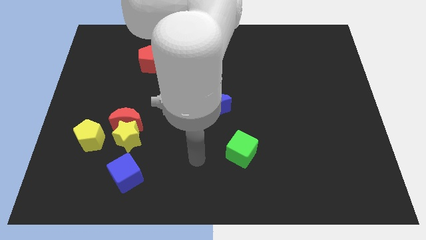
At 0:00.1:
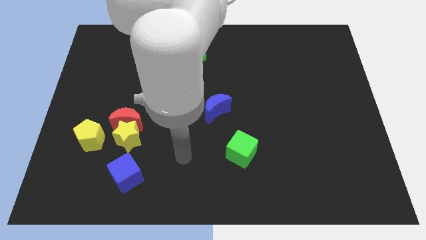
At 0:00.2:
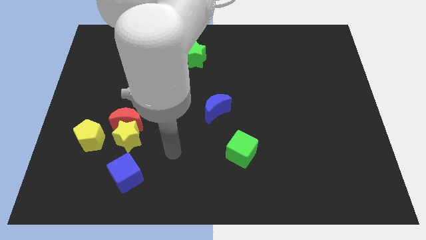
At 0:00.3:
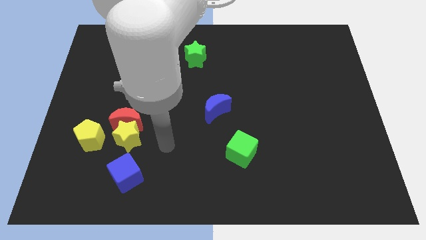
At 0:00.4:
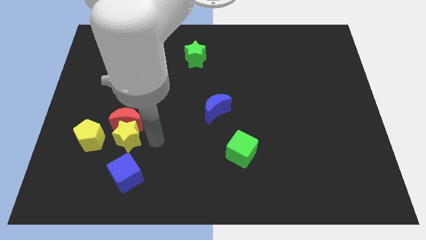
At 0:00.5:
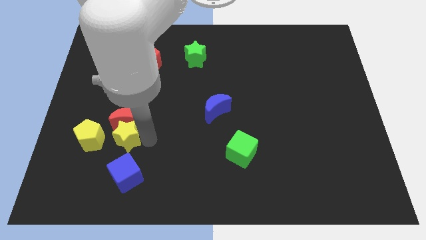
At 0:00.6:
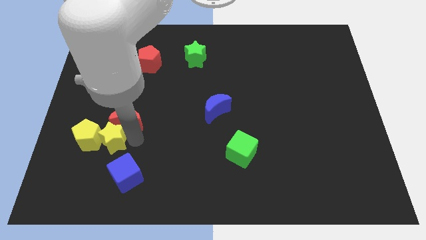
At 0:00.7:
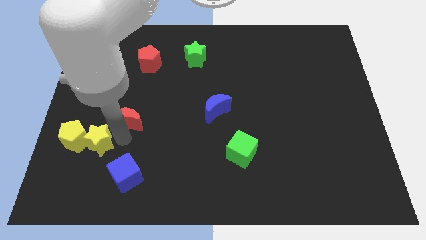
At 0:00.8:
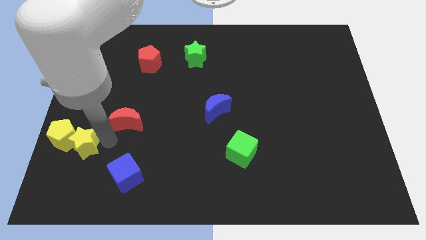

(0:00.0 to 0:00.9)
pull the red moon apart from the yellow star and yellow pentagon

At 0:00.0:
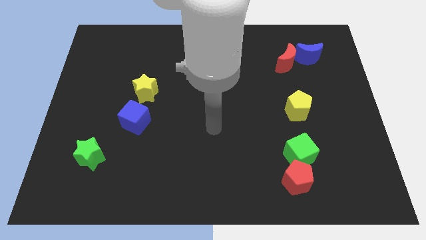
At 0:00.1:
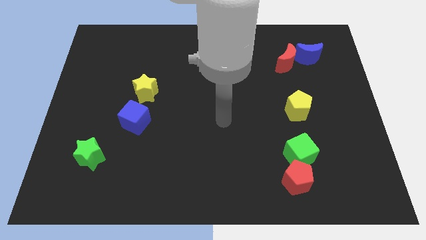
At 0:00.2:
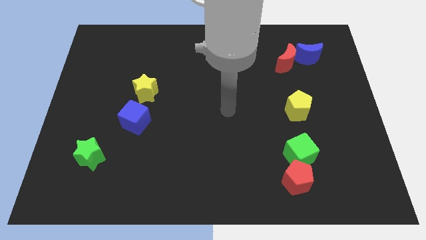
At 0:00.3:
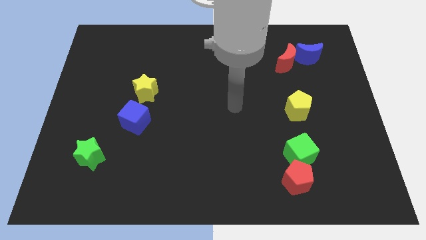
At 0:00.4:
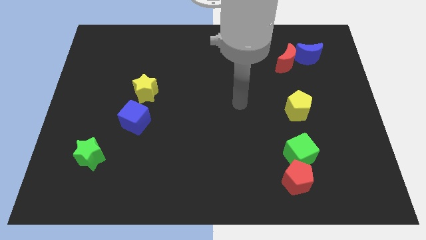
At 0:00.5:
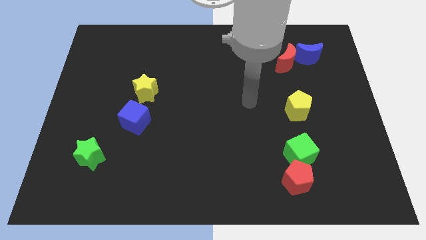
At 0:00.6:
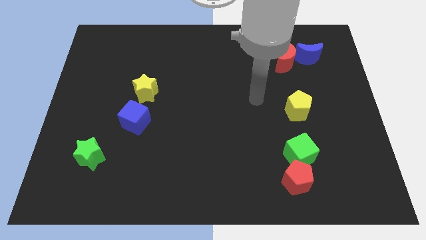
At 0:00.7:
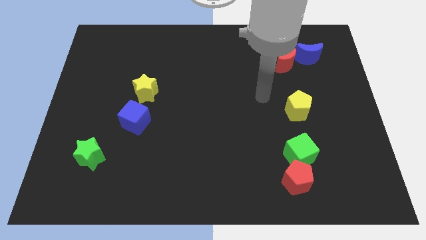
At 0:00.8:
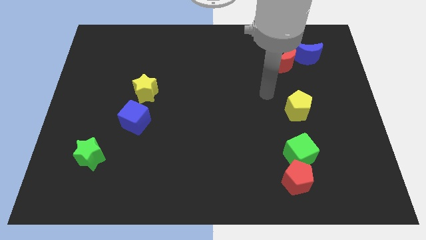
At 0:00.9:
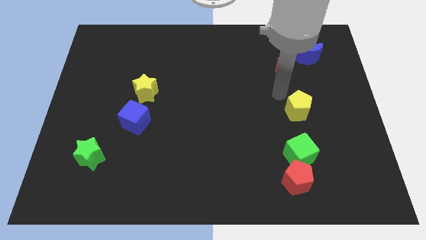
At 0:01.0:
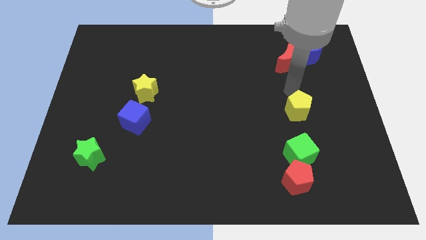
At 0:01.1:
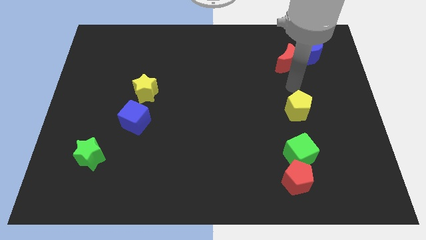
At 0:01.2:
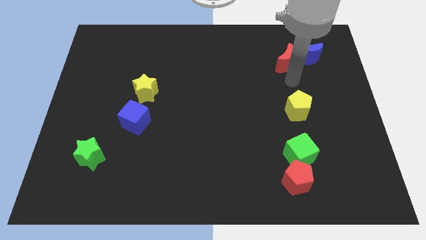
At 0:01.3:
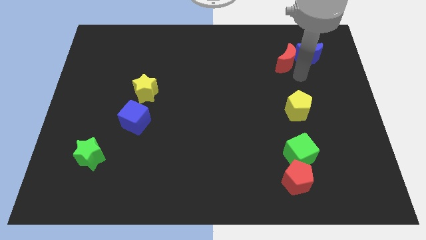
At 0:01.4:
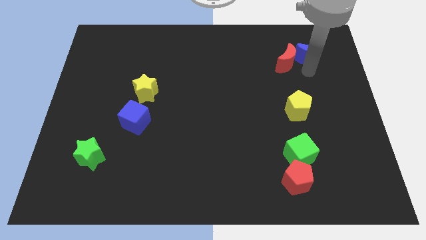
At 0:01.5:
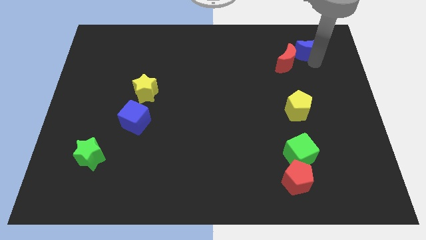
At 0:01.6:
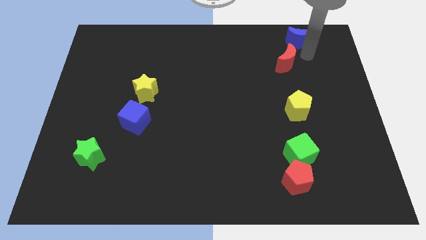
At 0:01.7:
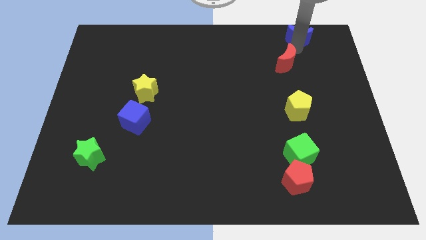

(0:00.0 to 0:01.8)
separate the red moon from the blue moon

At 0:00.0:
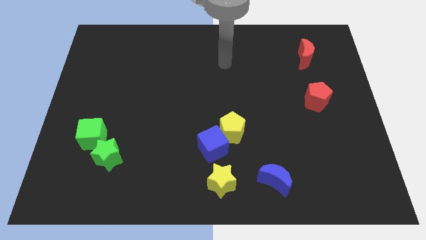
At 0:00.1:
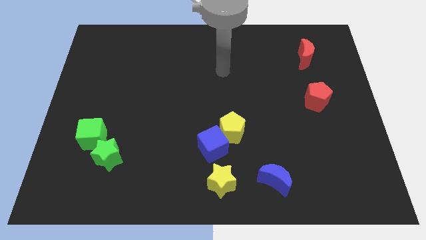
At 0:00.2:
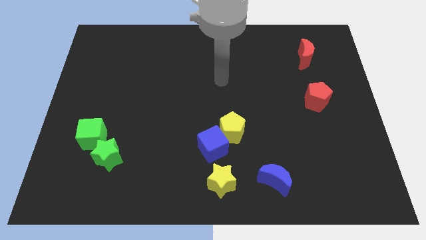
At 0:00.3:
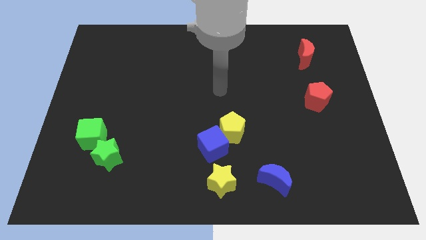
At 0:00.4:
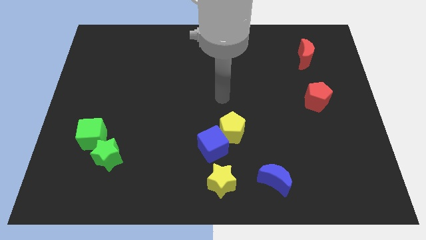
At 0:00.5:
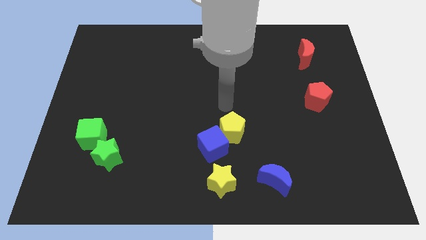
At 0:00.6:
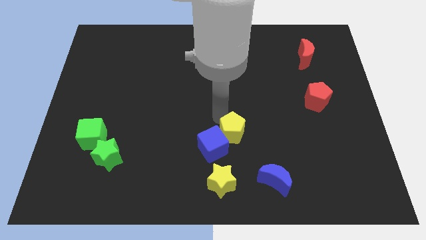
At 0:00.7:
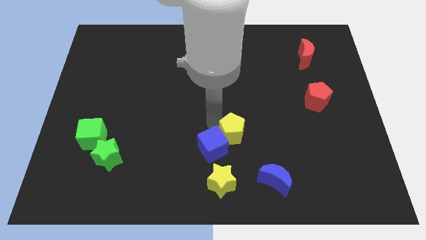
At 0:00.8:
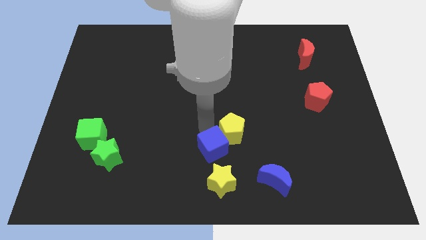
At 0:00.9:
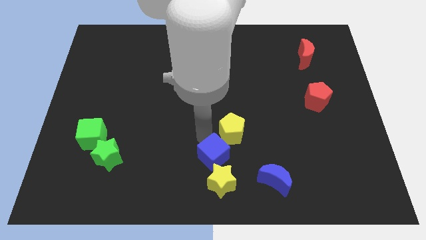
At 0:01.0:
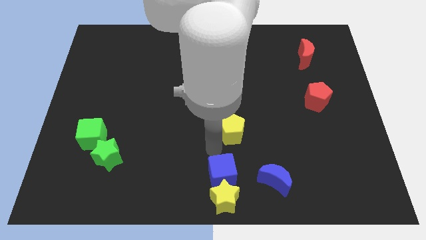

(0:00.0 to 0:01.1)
separate the yellow pentagon from the blue cube

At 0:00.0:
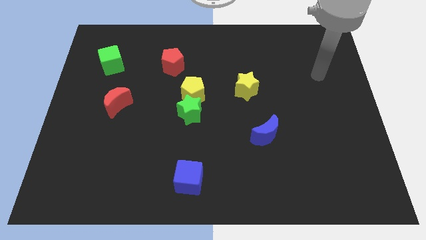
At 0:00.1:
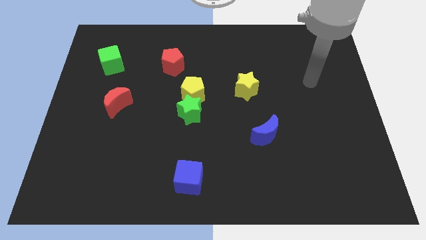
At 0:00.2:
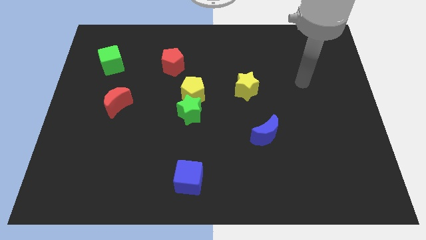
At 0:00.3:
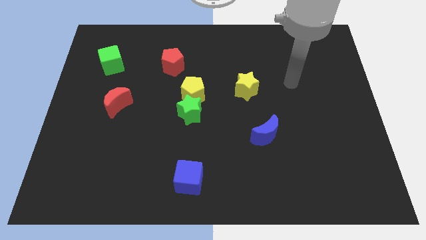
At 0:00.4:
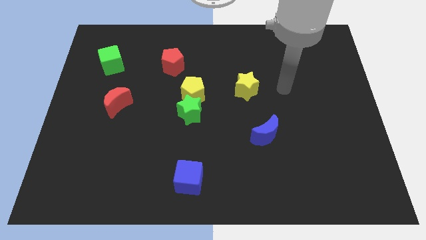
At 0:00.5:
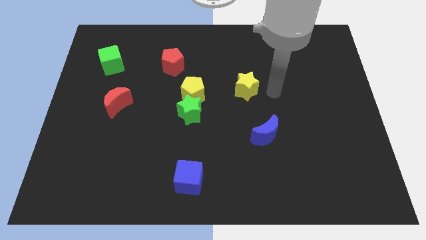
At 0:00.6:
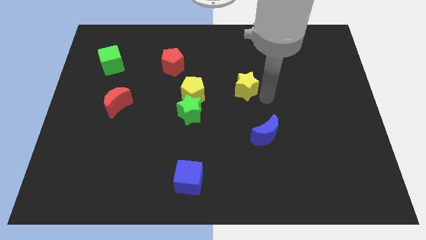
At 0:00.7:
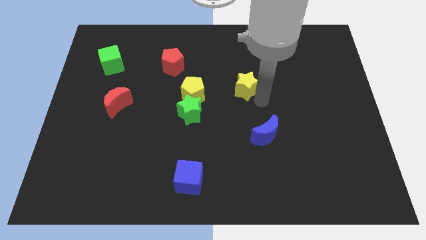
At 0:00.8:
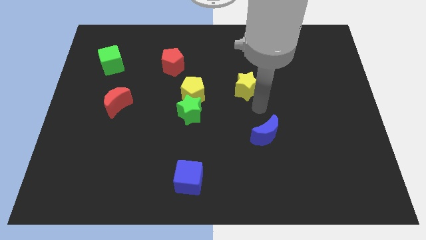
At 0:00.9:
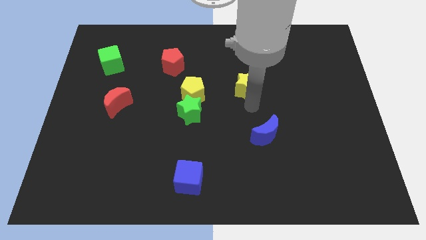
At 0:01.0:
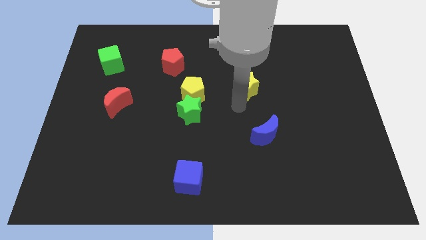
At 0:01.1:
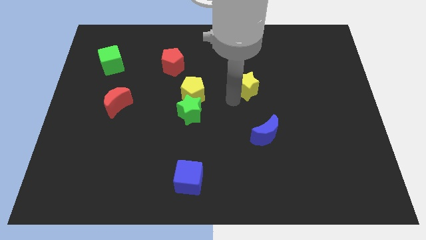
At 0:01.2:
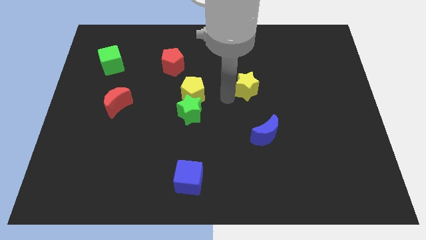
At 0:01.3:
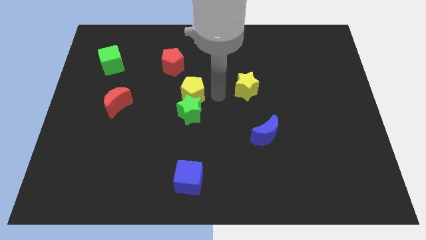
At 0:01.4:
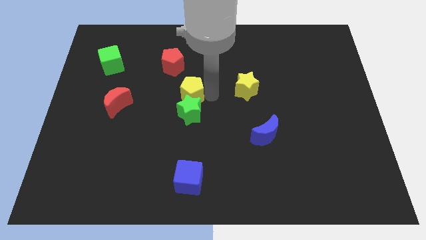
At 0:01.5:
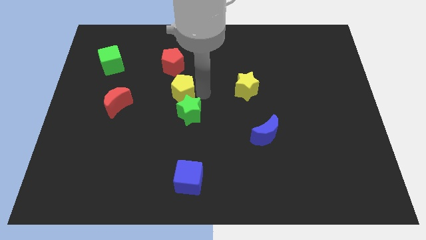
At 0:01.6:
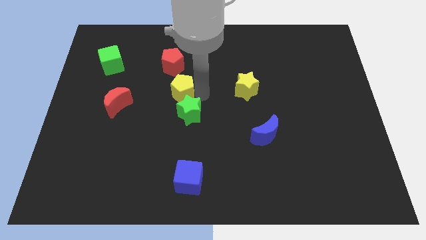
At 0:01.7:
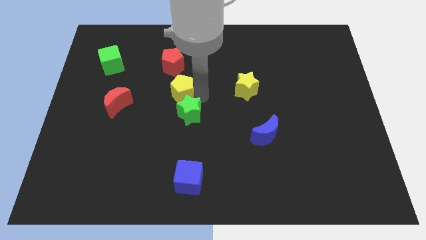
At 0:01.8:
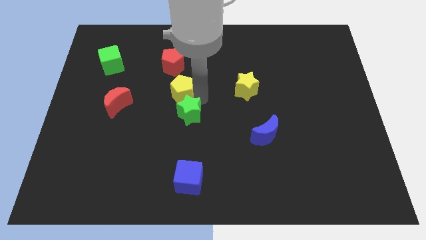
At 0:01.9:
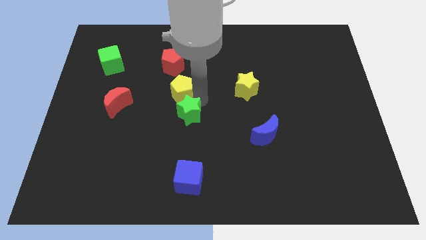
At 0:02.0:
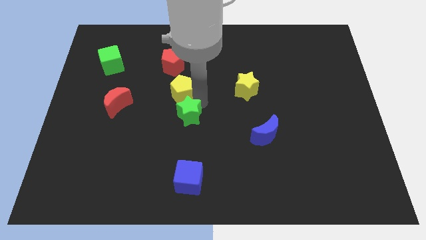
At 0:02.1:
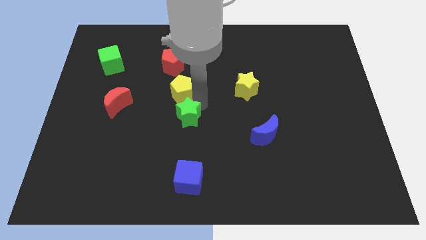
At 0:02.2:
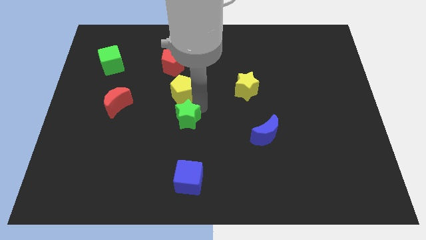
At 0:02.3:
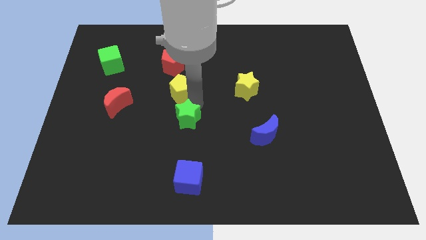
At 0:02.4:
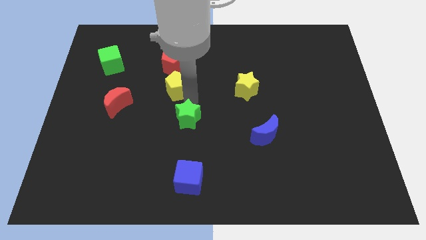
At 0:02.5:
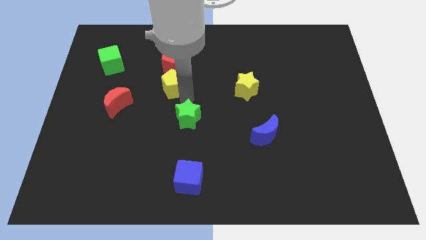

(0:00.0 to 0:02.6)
move the green star away from the yellow pentagon

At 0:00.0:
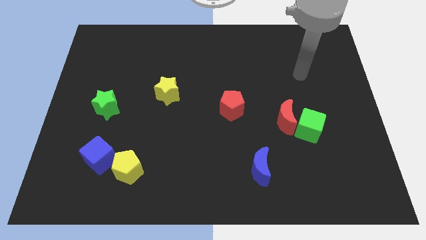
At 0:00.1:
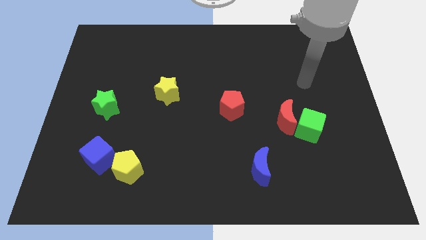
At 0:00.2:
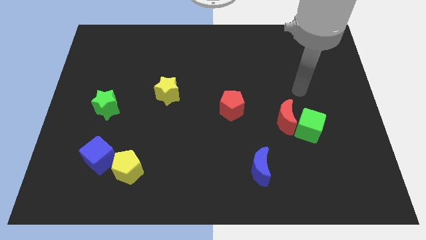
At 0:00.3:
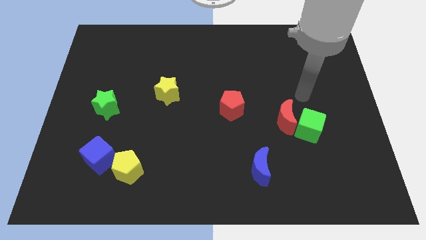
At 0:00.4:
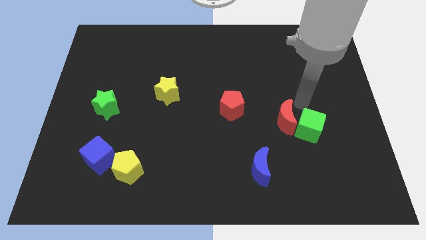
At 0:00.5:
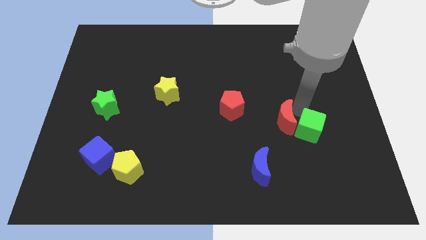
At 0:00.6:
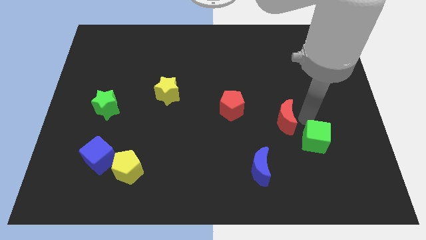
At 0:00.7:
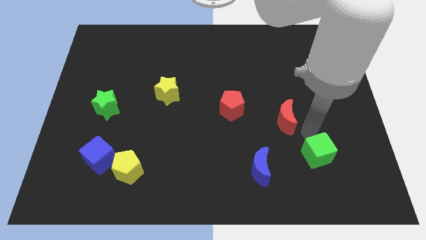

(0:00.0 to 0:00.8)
separate the red moon from the green cube

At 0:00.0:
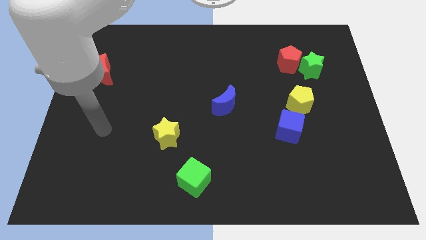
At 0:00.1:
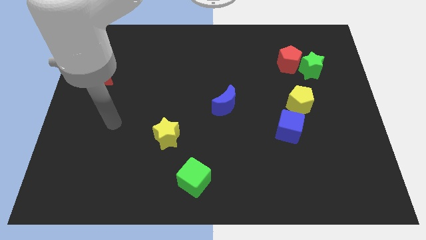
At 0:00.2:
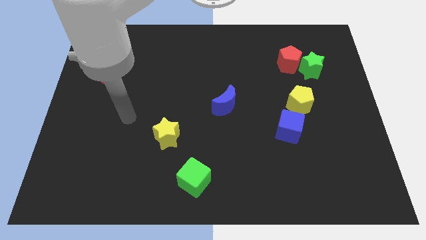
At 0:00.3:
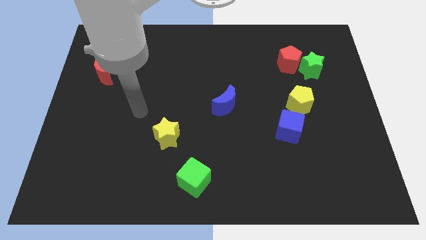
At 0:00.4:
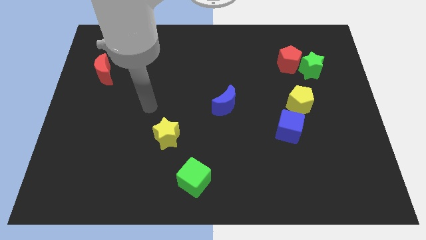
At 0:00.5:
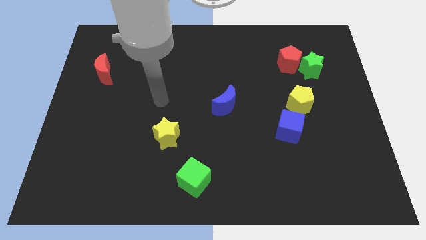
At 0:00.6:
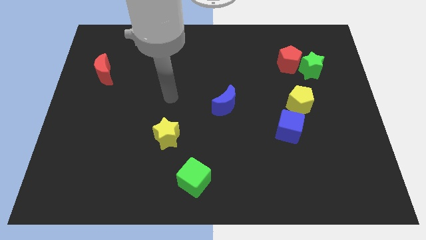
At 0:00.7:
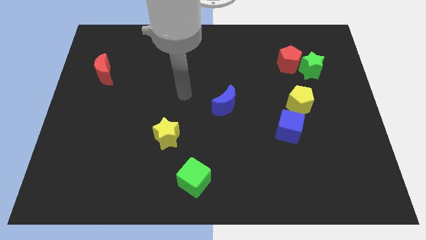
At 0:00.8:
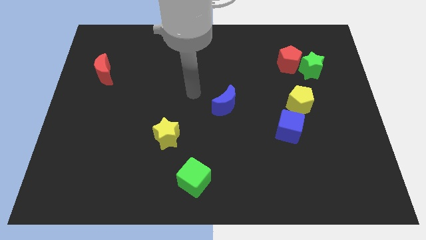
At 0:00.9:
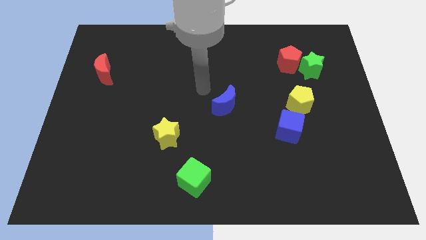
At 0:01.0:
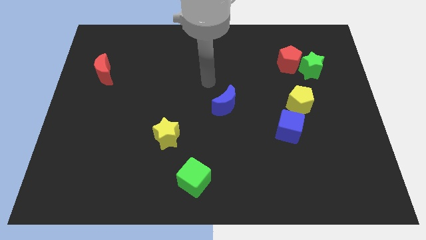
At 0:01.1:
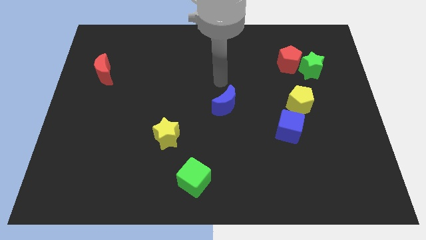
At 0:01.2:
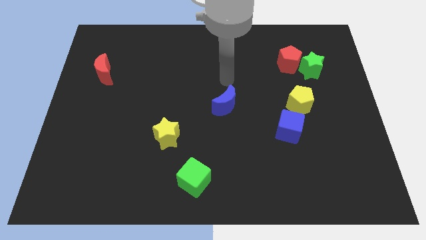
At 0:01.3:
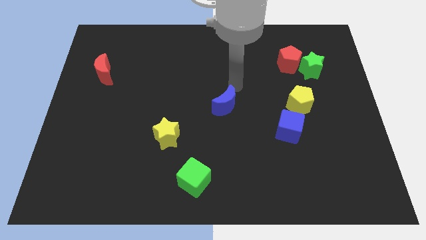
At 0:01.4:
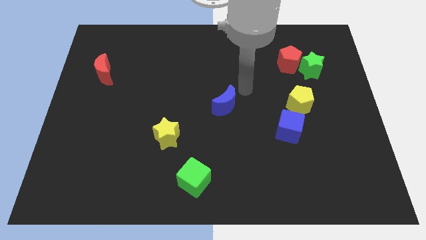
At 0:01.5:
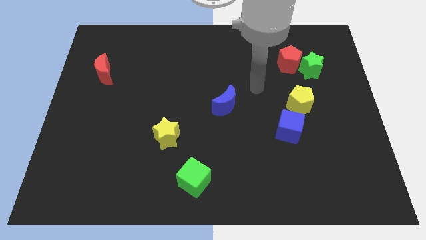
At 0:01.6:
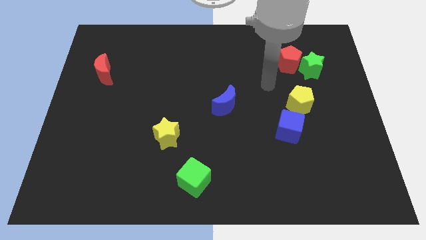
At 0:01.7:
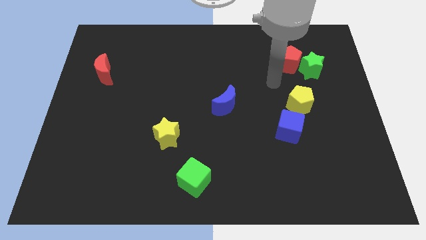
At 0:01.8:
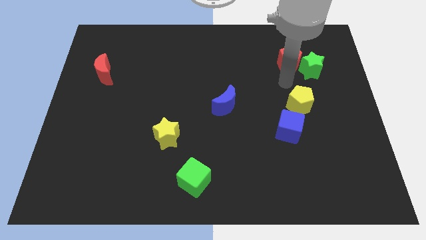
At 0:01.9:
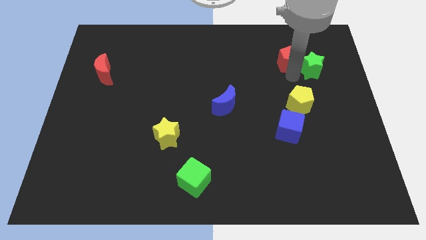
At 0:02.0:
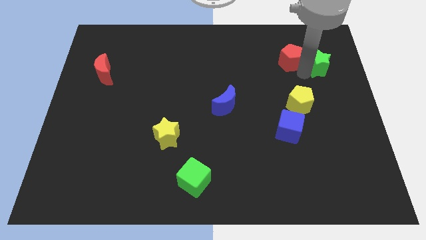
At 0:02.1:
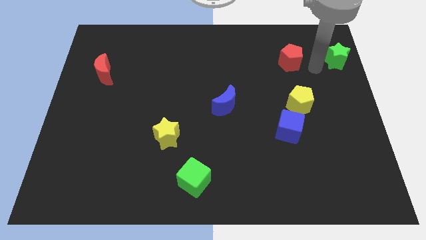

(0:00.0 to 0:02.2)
move the red pentagon away from the green star
